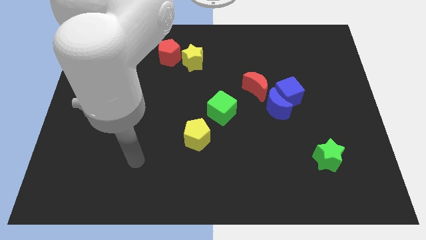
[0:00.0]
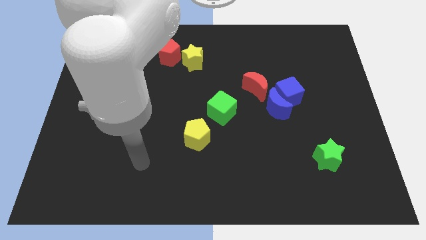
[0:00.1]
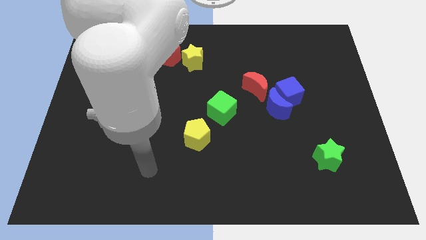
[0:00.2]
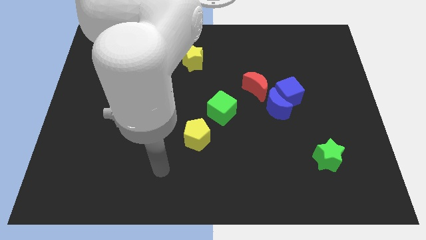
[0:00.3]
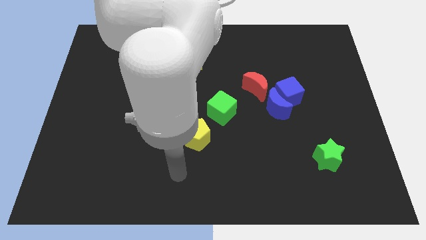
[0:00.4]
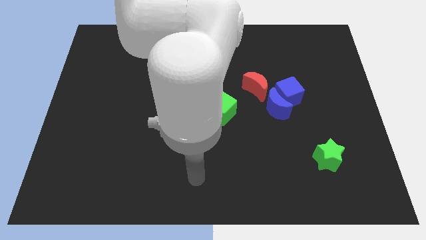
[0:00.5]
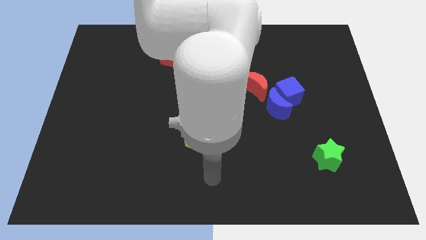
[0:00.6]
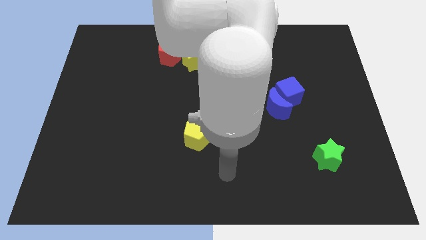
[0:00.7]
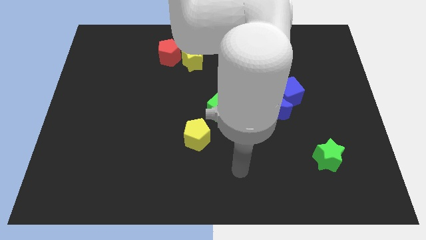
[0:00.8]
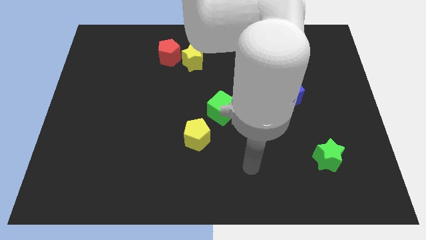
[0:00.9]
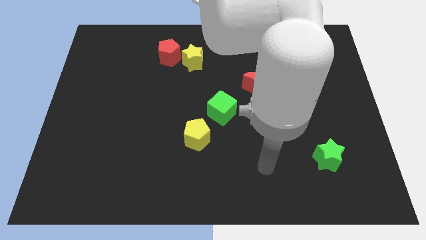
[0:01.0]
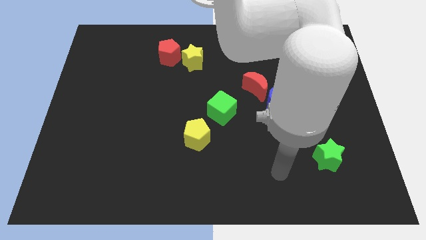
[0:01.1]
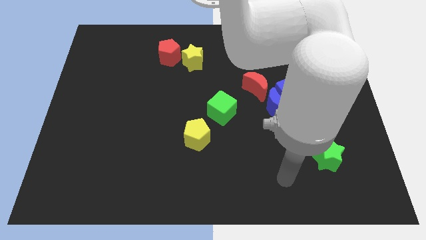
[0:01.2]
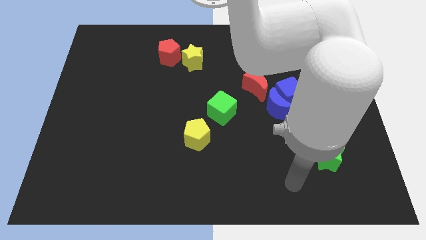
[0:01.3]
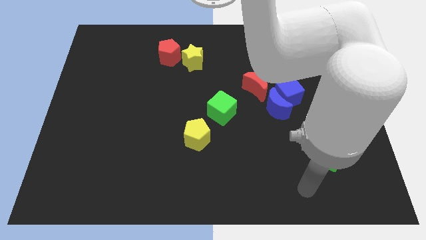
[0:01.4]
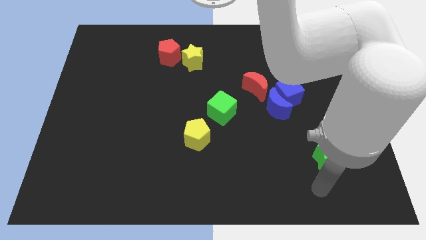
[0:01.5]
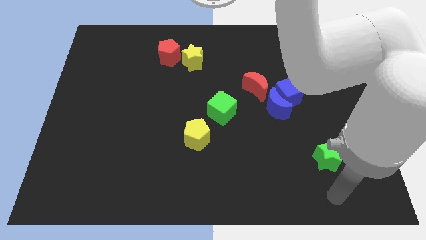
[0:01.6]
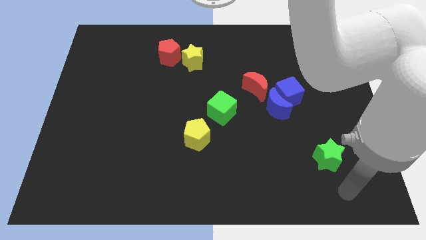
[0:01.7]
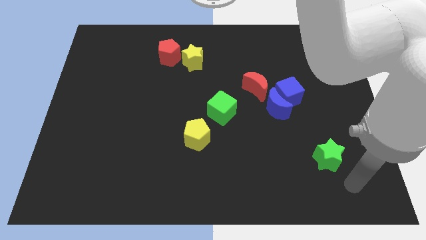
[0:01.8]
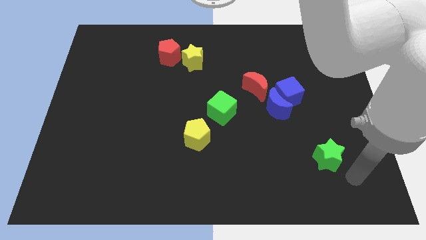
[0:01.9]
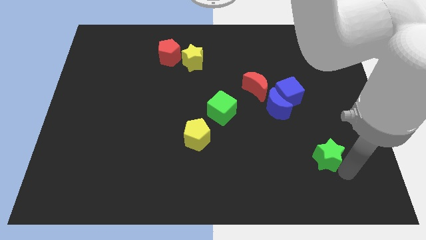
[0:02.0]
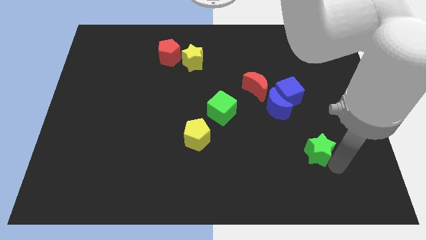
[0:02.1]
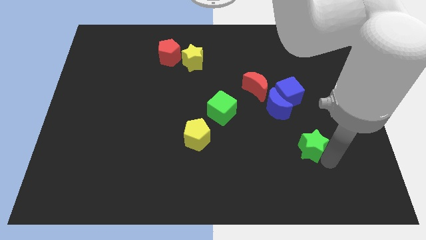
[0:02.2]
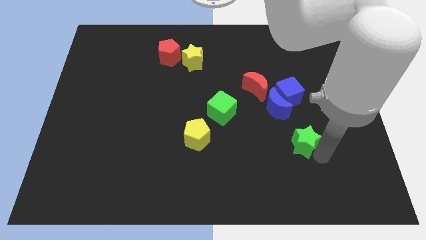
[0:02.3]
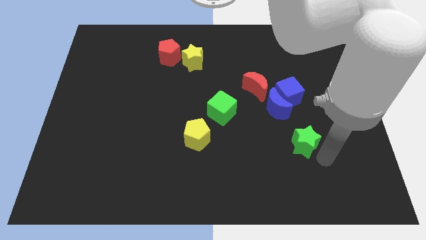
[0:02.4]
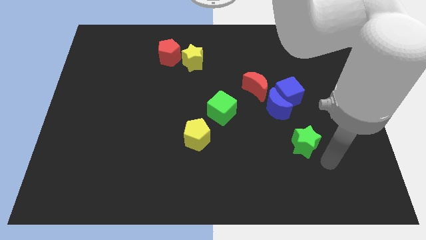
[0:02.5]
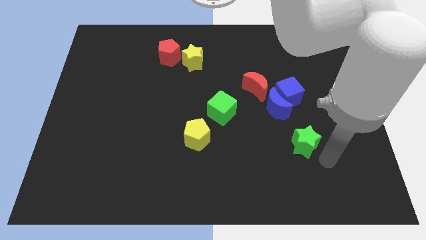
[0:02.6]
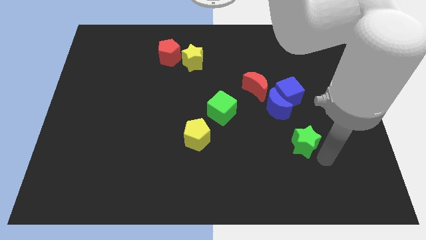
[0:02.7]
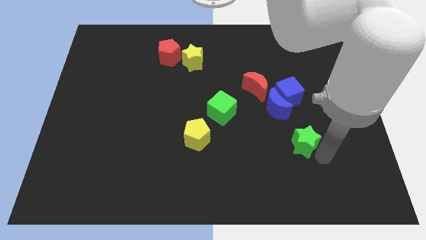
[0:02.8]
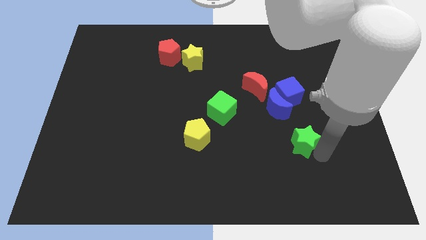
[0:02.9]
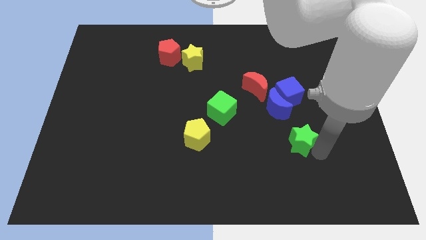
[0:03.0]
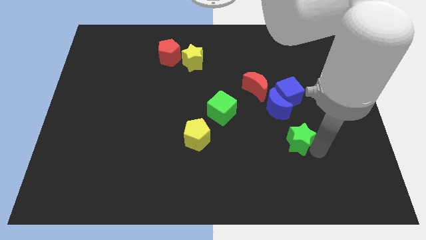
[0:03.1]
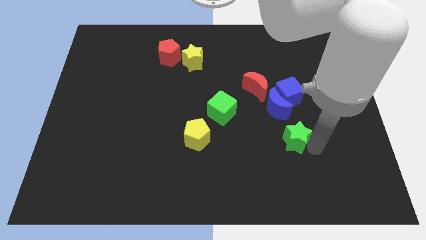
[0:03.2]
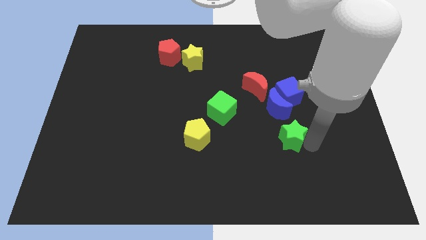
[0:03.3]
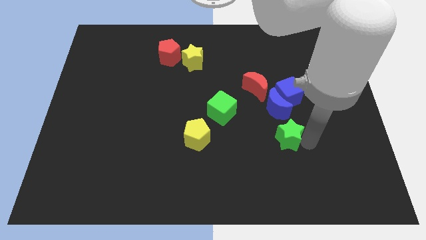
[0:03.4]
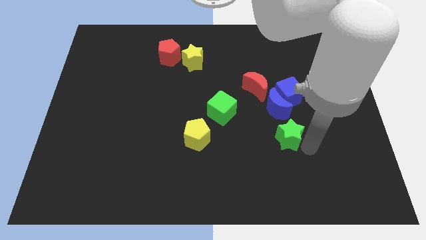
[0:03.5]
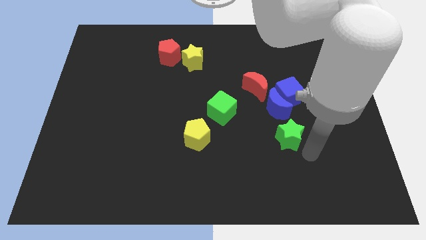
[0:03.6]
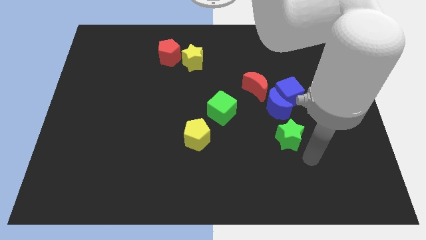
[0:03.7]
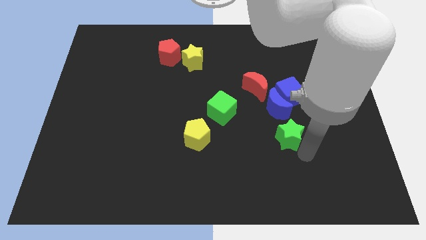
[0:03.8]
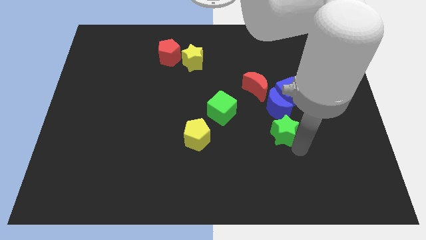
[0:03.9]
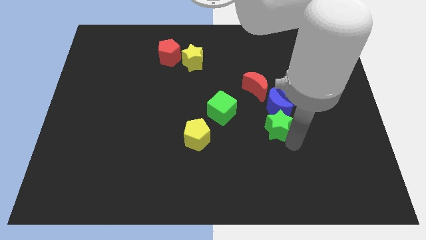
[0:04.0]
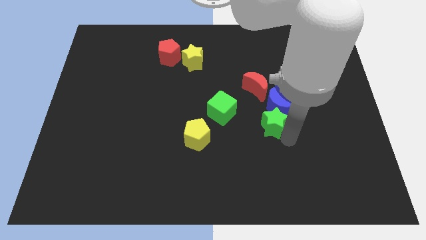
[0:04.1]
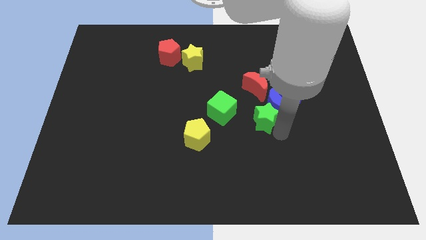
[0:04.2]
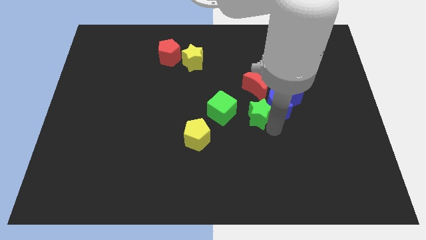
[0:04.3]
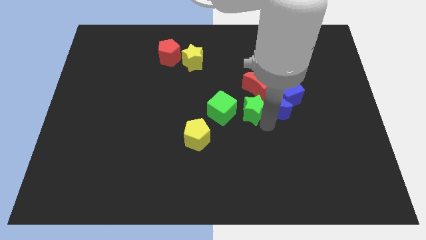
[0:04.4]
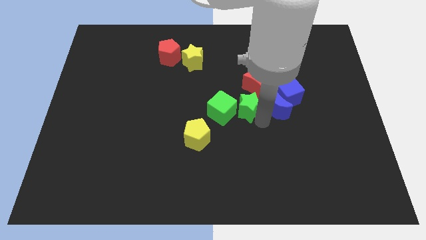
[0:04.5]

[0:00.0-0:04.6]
push the green star up and left

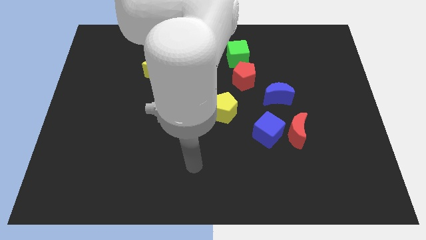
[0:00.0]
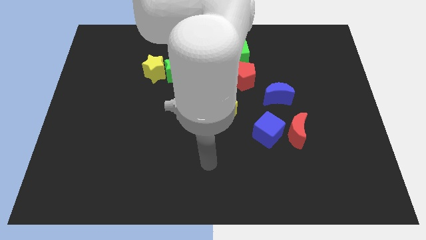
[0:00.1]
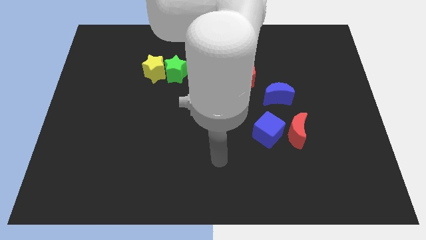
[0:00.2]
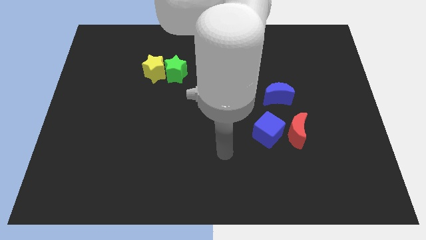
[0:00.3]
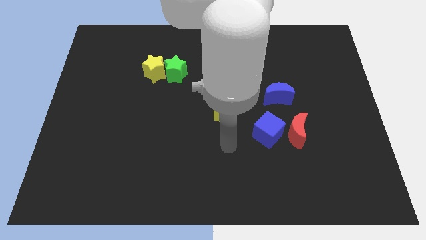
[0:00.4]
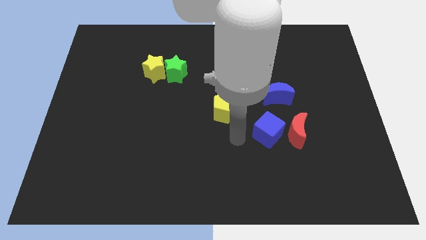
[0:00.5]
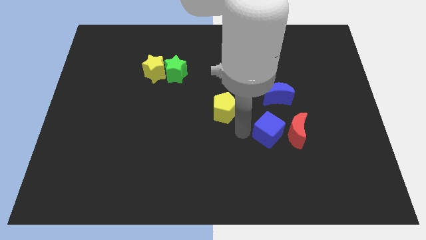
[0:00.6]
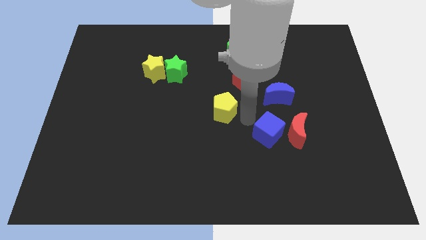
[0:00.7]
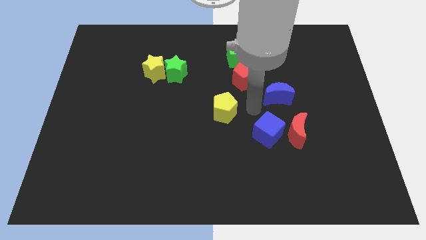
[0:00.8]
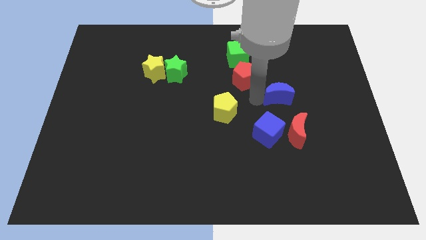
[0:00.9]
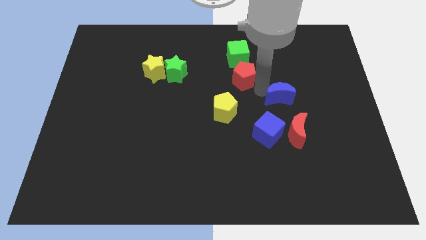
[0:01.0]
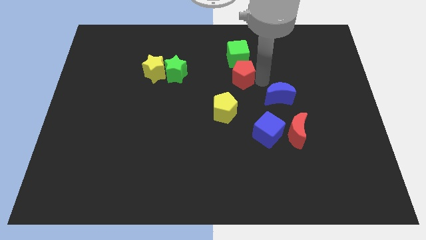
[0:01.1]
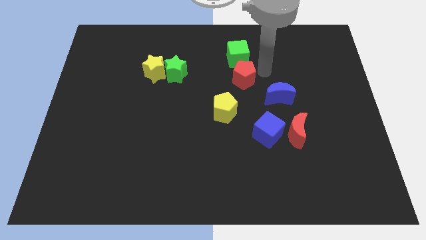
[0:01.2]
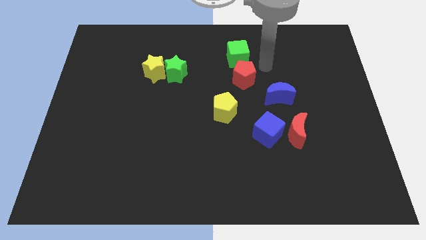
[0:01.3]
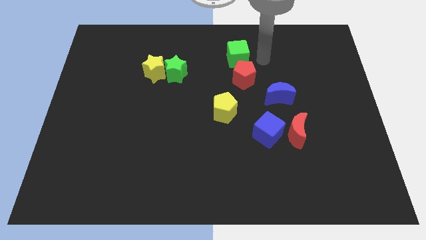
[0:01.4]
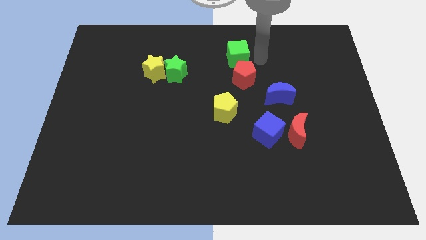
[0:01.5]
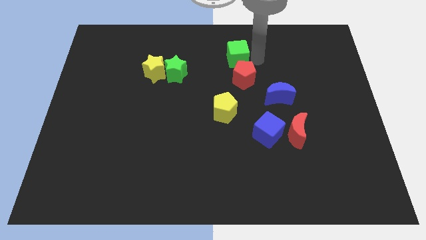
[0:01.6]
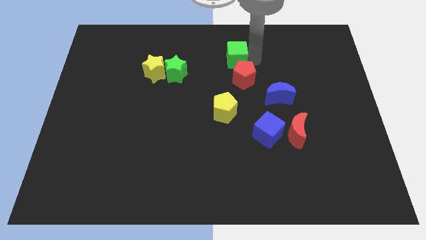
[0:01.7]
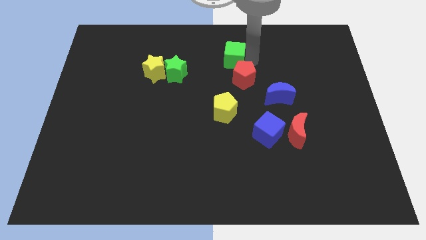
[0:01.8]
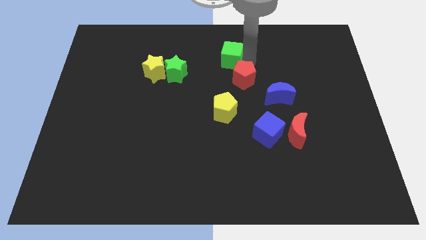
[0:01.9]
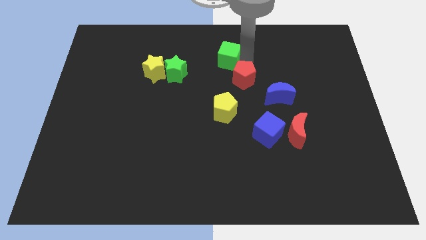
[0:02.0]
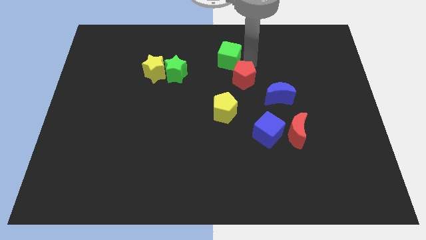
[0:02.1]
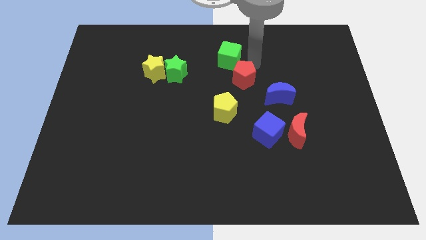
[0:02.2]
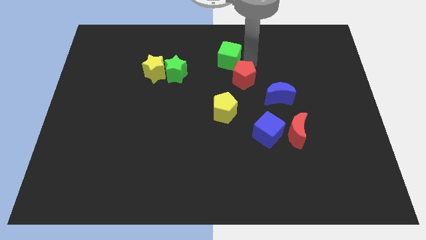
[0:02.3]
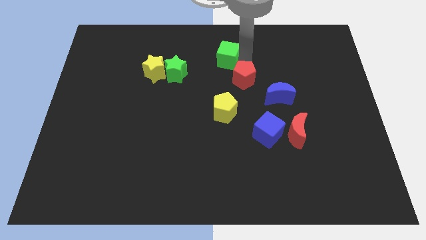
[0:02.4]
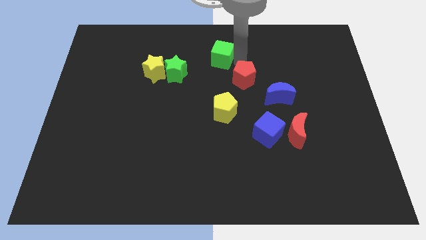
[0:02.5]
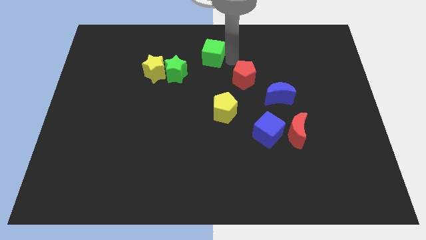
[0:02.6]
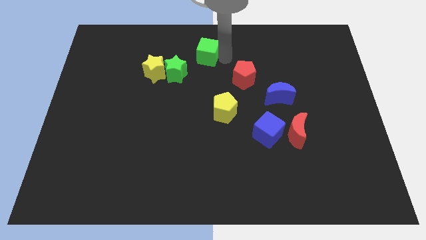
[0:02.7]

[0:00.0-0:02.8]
slightly slide the green cube to the left

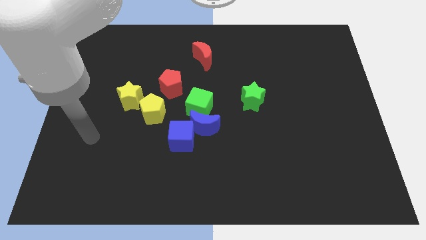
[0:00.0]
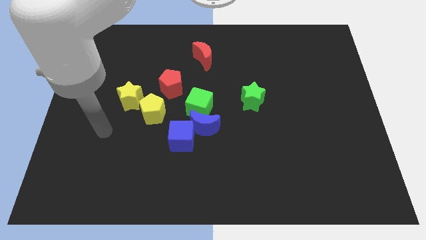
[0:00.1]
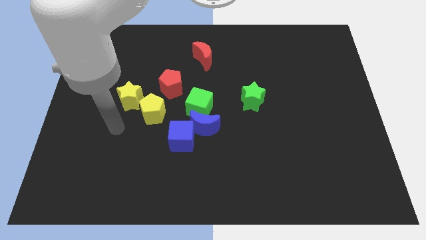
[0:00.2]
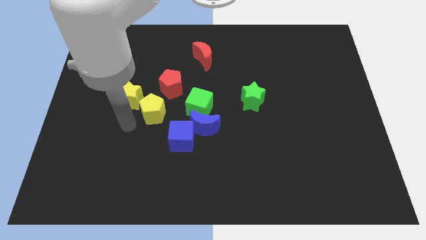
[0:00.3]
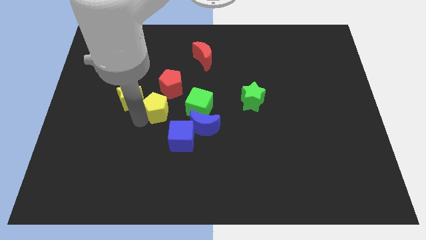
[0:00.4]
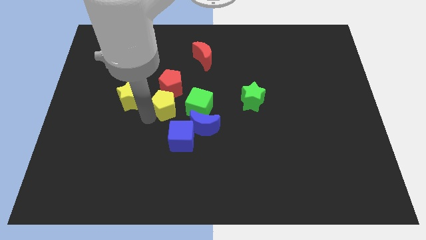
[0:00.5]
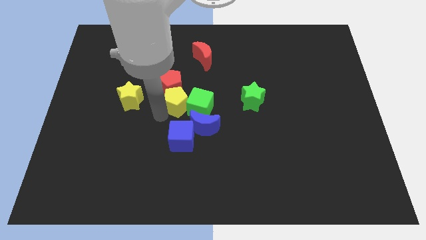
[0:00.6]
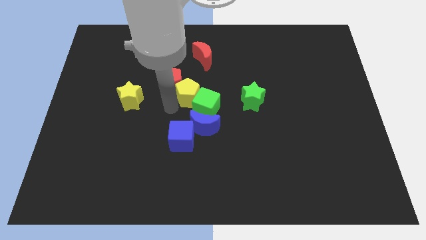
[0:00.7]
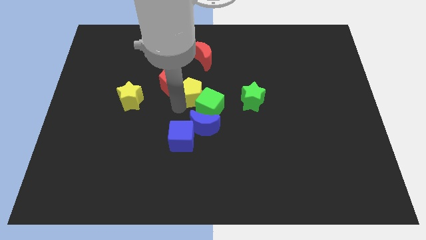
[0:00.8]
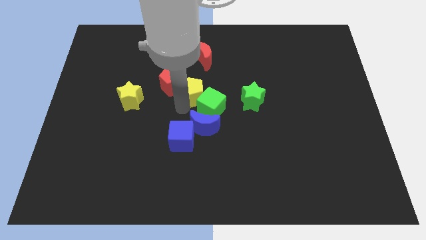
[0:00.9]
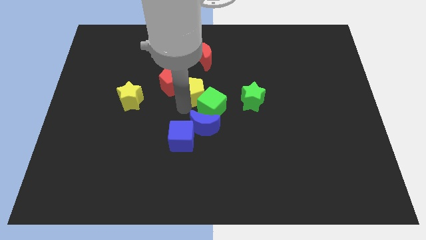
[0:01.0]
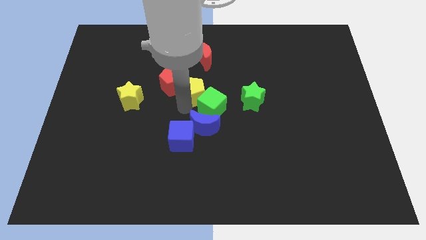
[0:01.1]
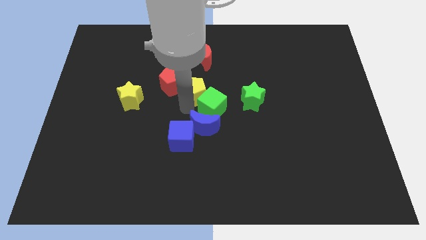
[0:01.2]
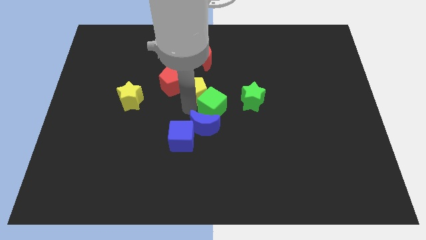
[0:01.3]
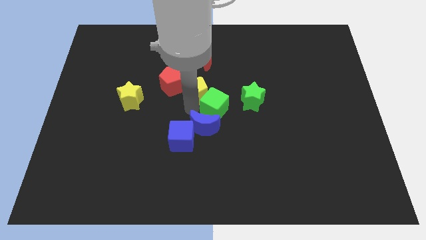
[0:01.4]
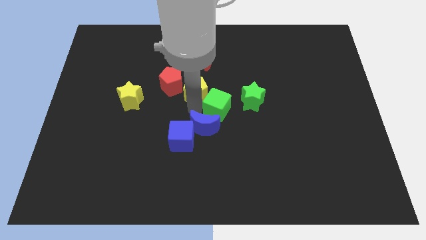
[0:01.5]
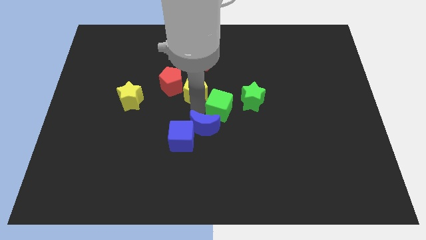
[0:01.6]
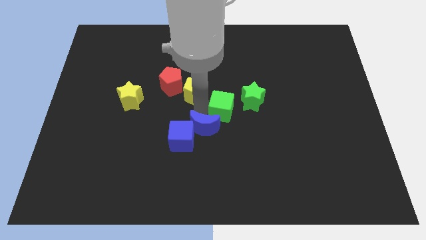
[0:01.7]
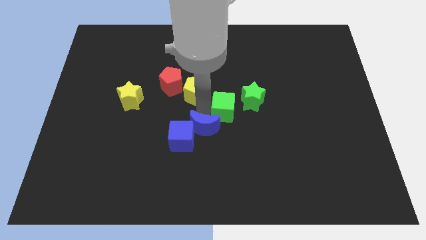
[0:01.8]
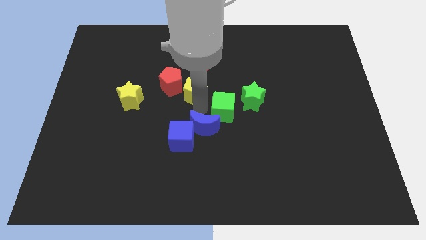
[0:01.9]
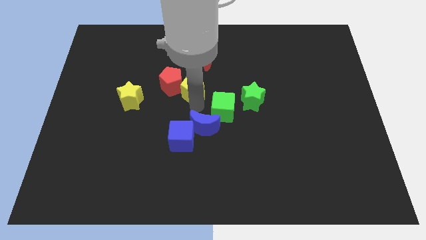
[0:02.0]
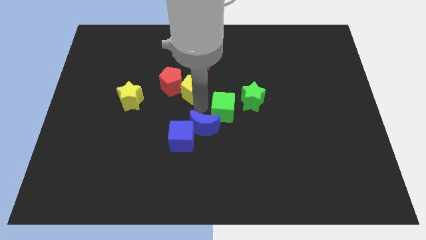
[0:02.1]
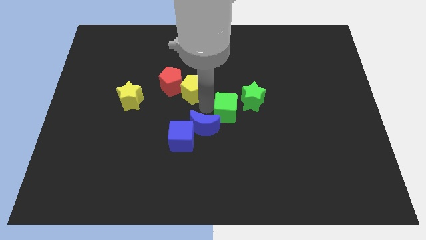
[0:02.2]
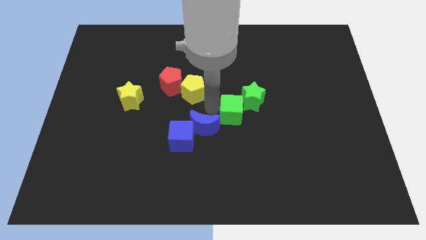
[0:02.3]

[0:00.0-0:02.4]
slightly push the green cube to the right
